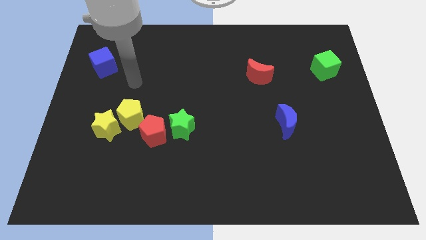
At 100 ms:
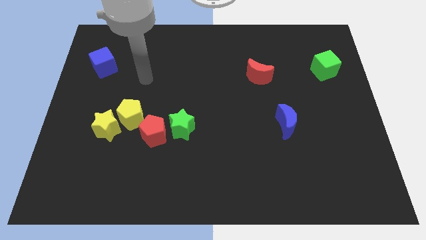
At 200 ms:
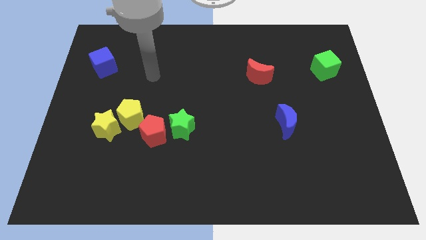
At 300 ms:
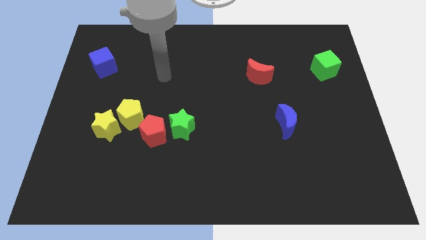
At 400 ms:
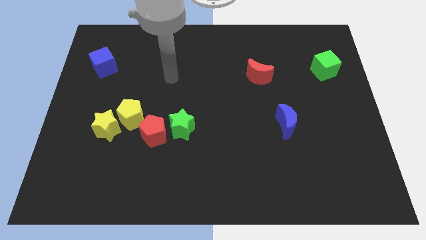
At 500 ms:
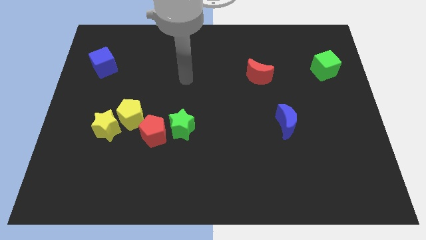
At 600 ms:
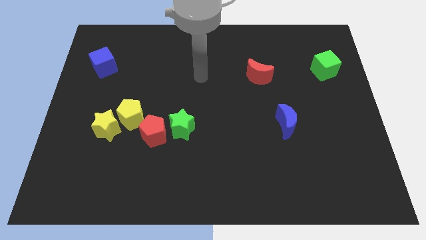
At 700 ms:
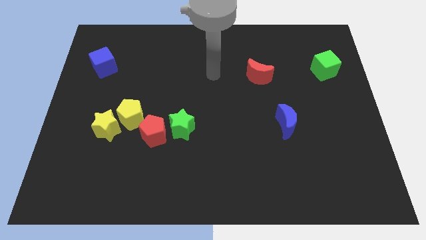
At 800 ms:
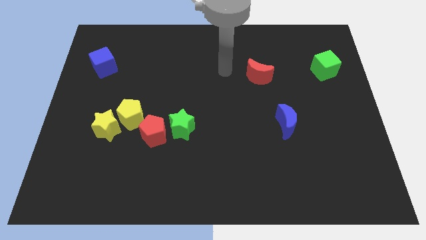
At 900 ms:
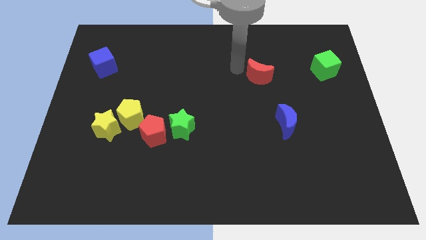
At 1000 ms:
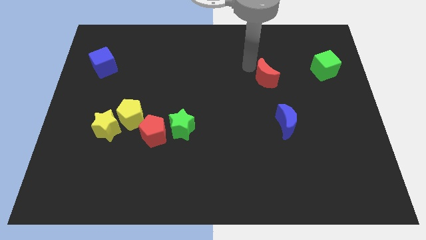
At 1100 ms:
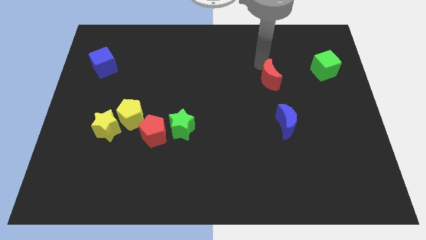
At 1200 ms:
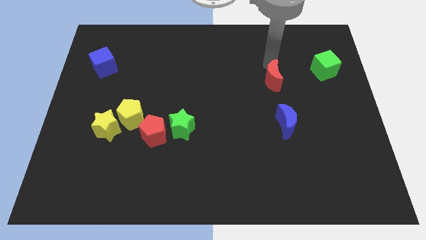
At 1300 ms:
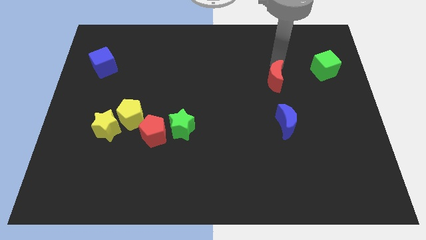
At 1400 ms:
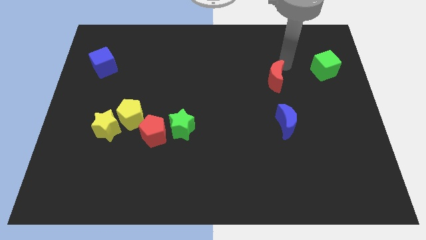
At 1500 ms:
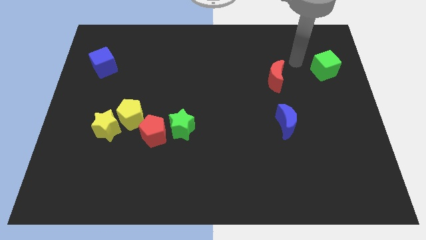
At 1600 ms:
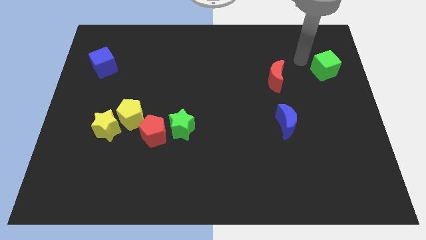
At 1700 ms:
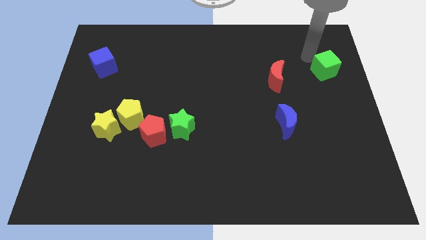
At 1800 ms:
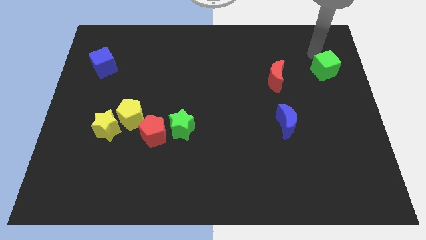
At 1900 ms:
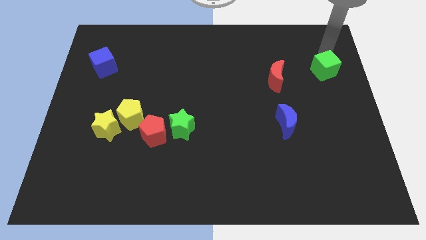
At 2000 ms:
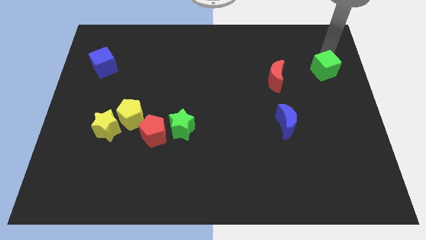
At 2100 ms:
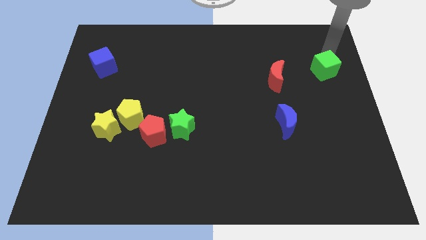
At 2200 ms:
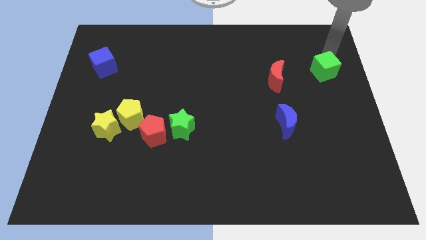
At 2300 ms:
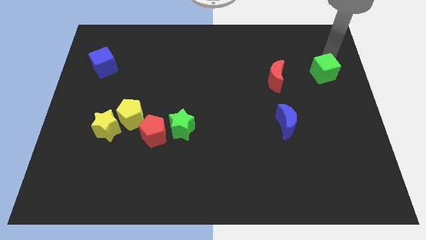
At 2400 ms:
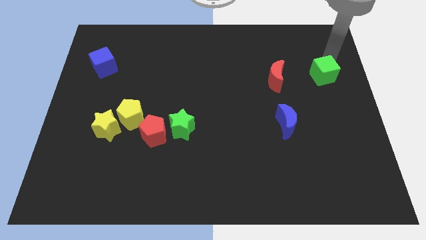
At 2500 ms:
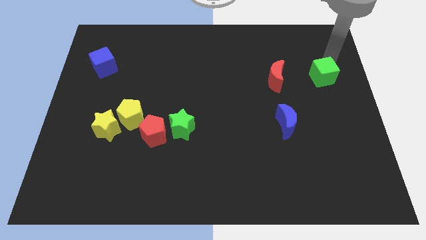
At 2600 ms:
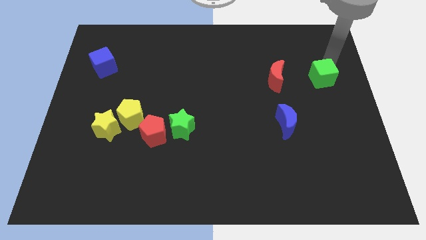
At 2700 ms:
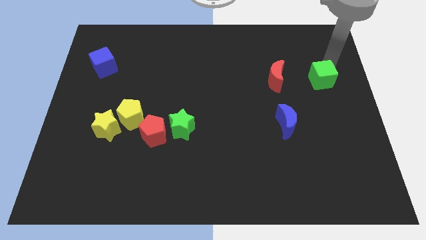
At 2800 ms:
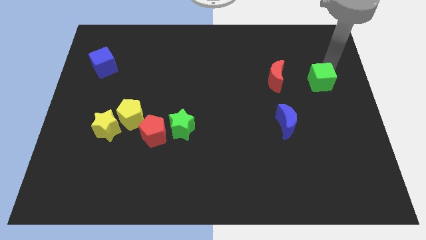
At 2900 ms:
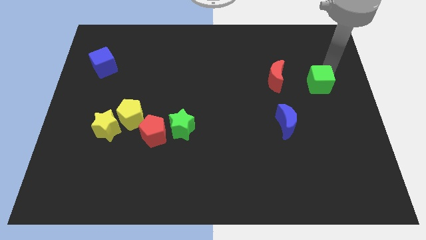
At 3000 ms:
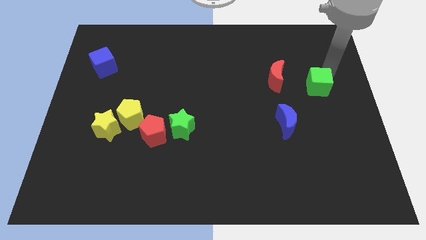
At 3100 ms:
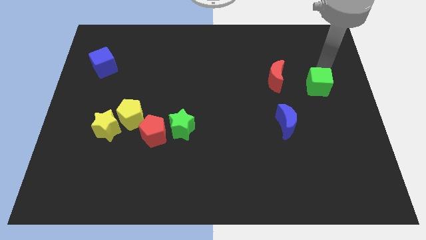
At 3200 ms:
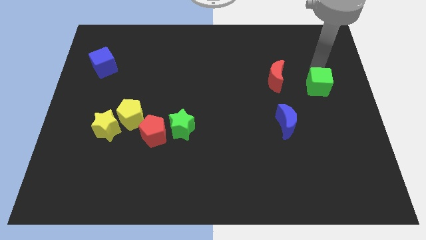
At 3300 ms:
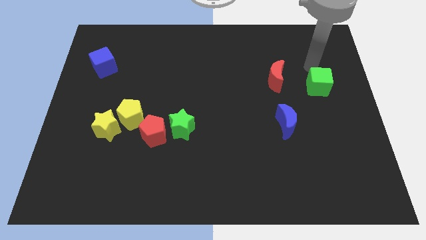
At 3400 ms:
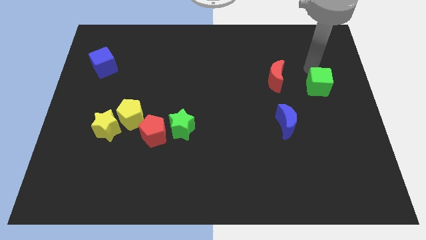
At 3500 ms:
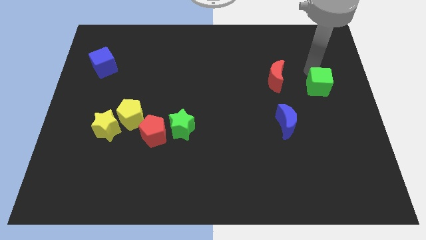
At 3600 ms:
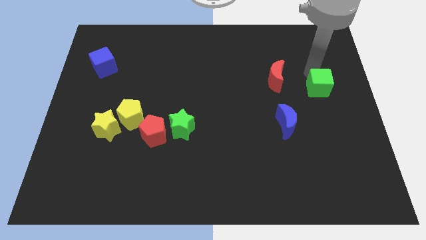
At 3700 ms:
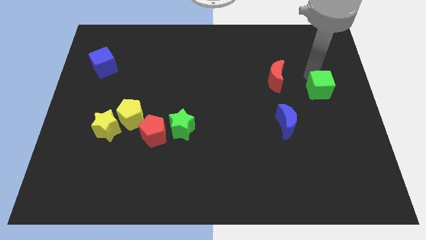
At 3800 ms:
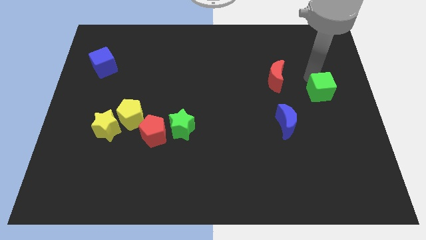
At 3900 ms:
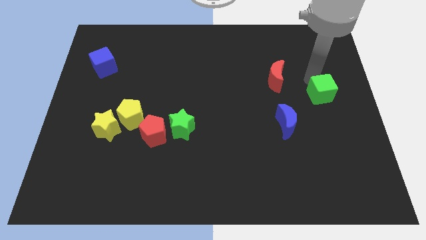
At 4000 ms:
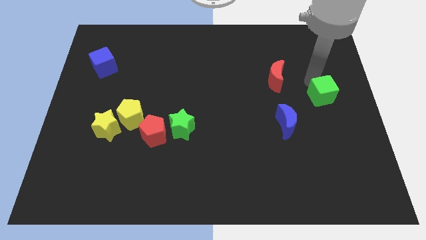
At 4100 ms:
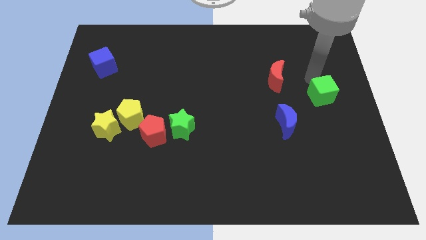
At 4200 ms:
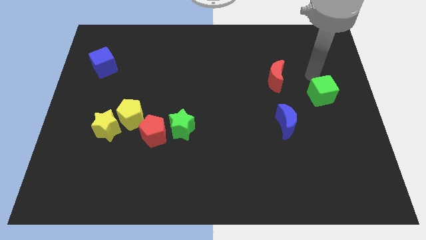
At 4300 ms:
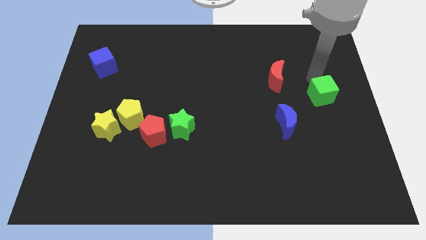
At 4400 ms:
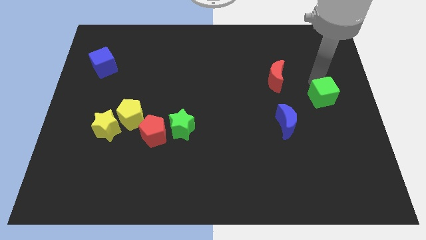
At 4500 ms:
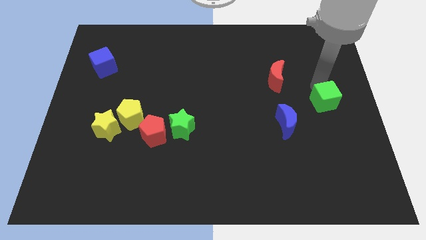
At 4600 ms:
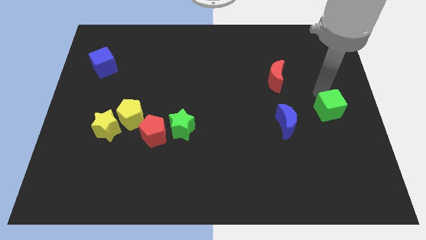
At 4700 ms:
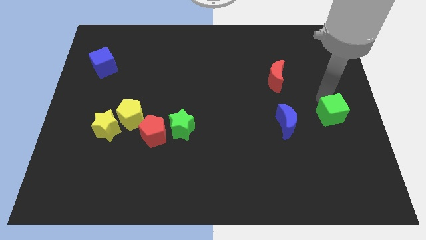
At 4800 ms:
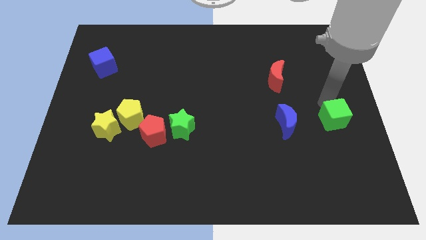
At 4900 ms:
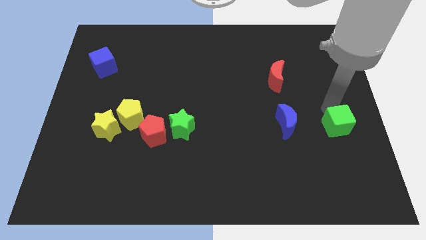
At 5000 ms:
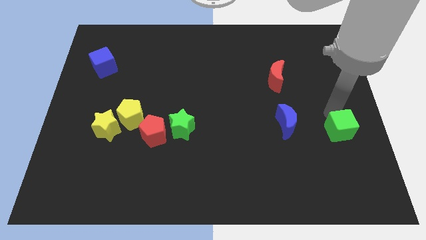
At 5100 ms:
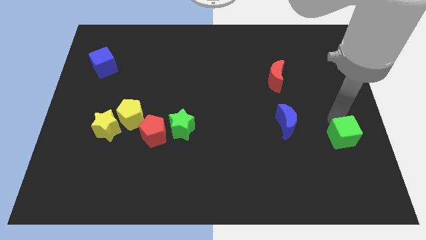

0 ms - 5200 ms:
move the green cube downwards

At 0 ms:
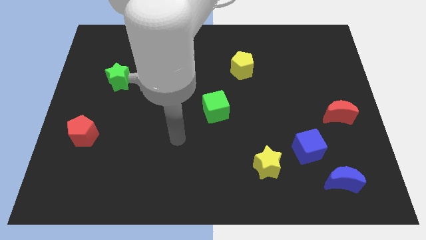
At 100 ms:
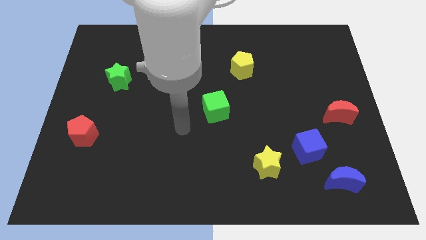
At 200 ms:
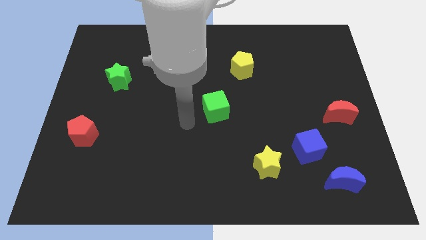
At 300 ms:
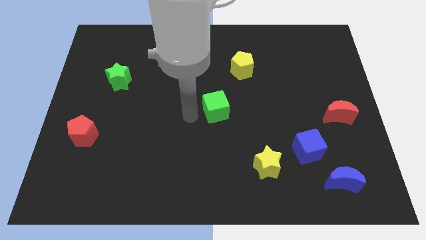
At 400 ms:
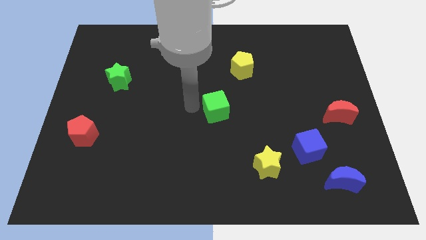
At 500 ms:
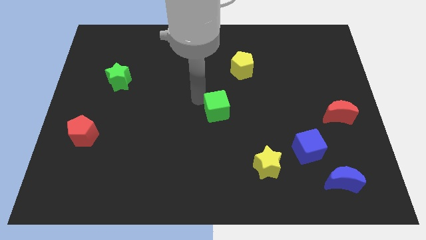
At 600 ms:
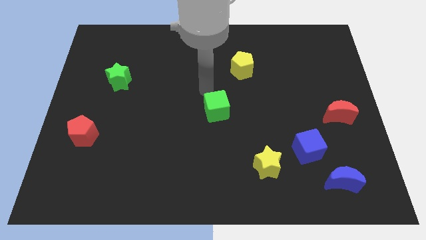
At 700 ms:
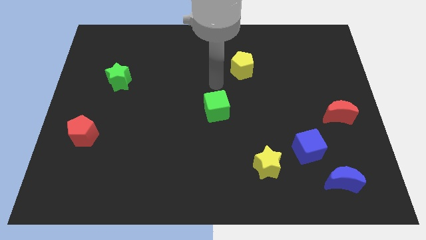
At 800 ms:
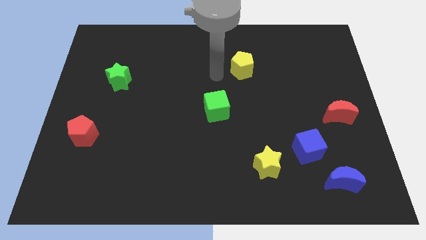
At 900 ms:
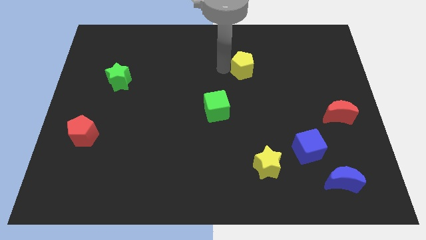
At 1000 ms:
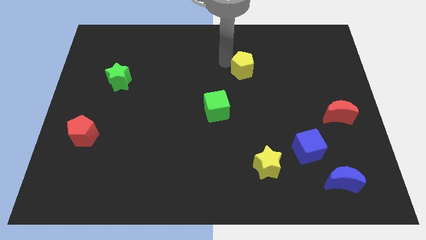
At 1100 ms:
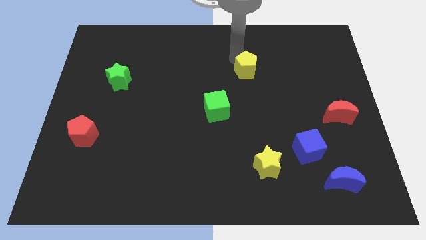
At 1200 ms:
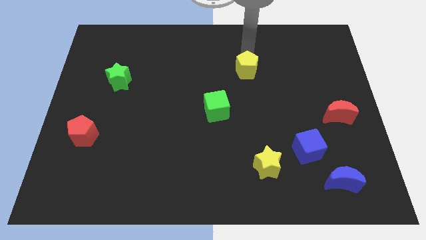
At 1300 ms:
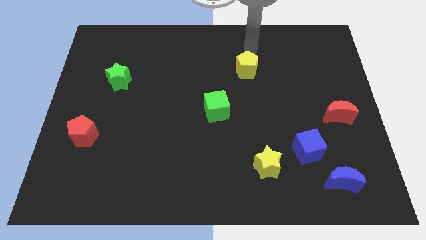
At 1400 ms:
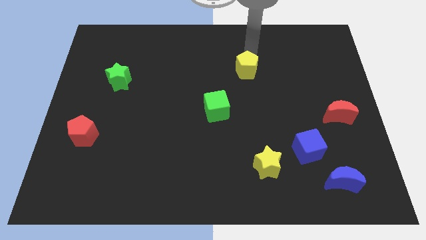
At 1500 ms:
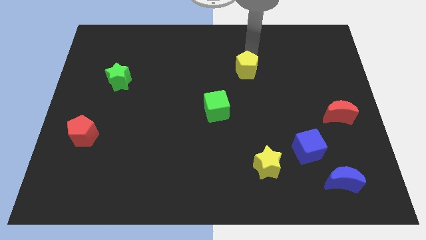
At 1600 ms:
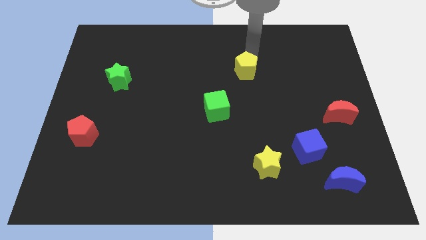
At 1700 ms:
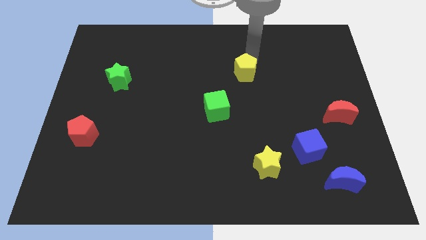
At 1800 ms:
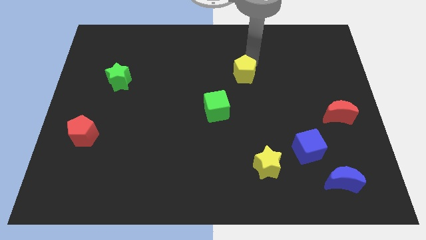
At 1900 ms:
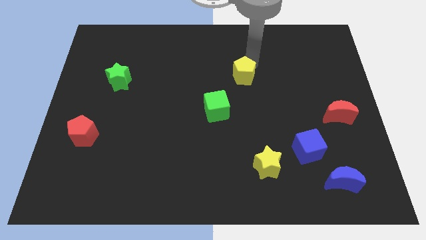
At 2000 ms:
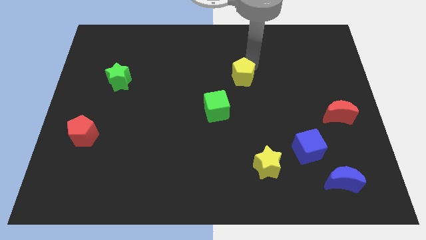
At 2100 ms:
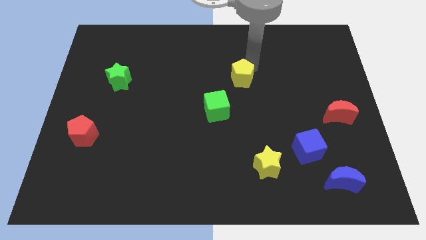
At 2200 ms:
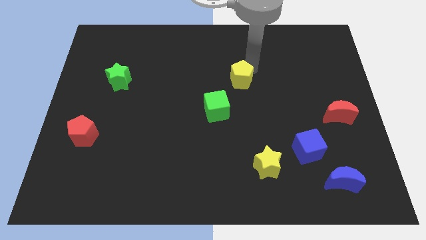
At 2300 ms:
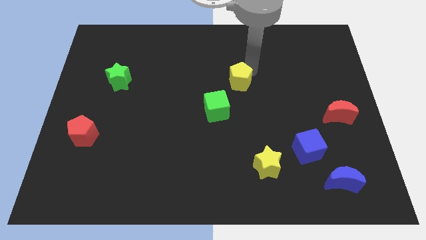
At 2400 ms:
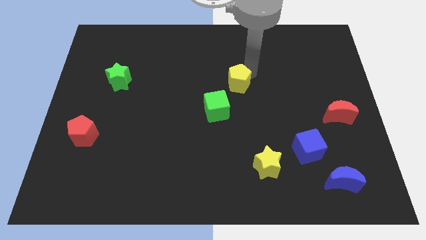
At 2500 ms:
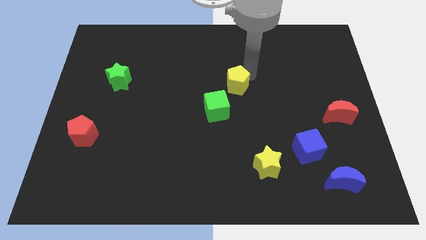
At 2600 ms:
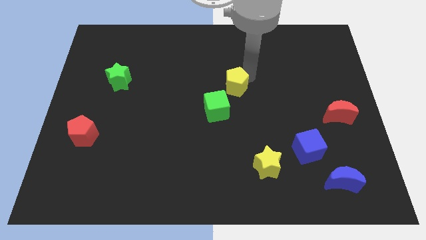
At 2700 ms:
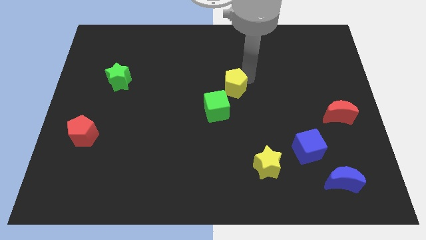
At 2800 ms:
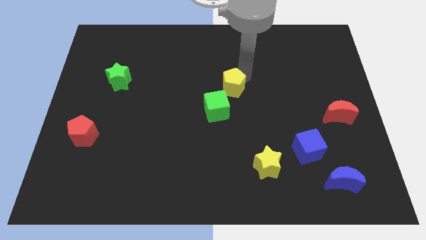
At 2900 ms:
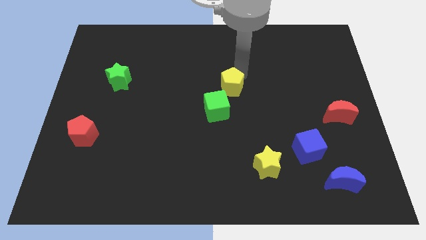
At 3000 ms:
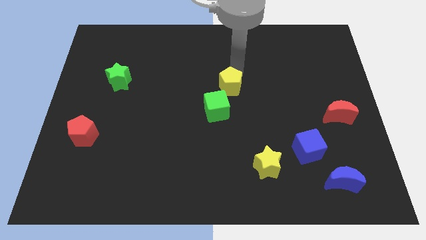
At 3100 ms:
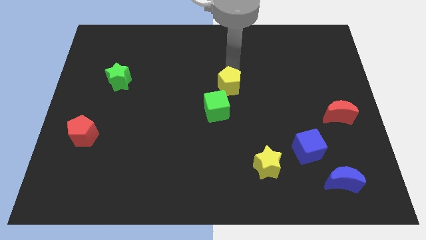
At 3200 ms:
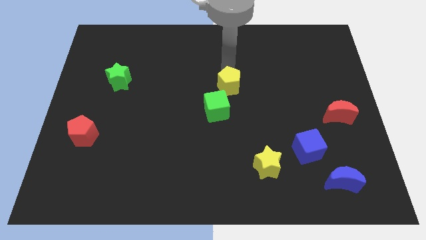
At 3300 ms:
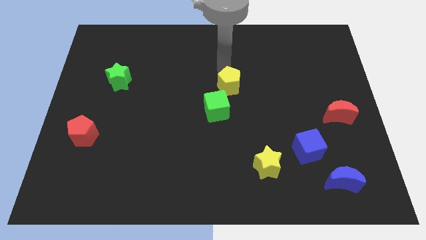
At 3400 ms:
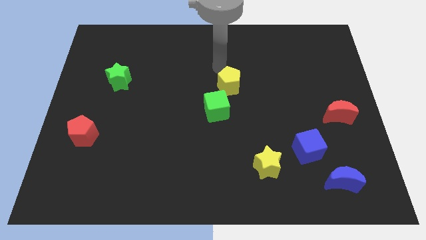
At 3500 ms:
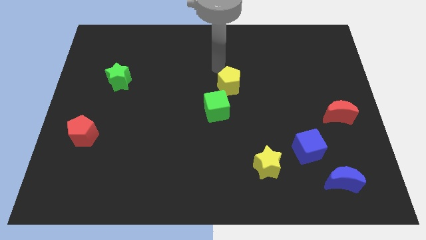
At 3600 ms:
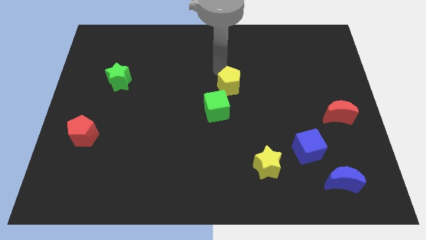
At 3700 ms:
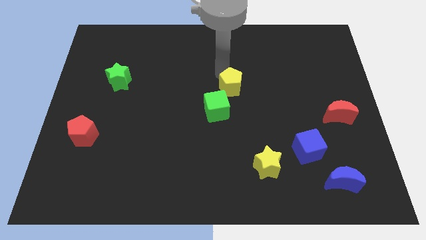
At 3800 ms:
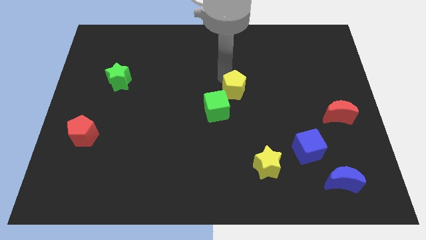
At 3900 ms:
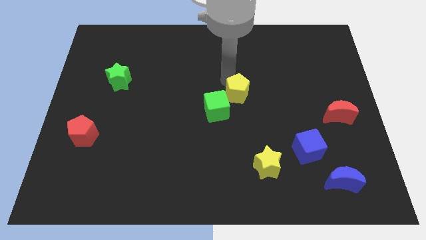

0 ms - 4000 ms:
push the yellow pentagon a little downwards
